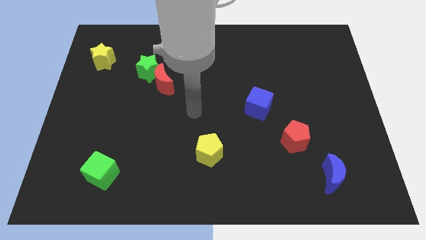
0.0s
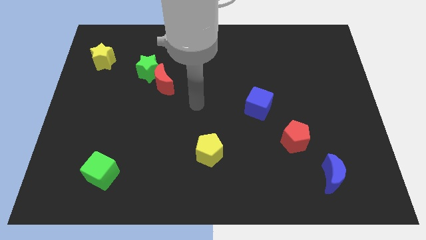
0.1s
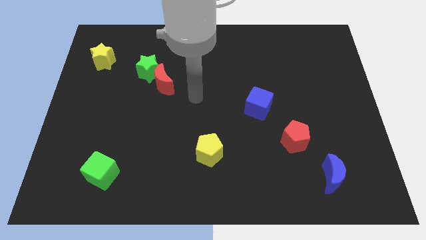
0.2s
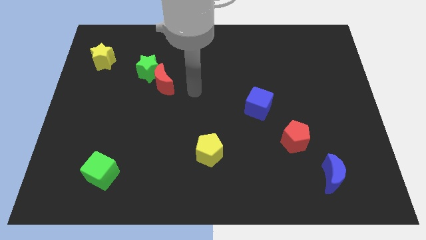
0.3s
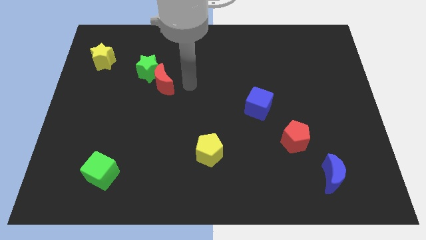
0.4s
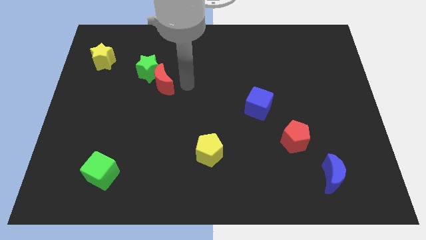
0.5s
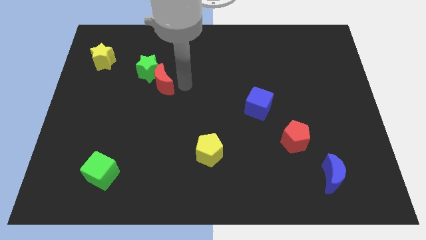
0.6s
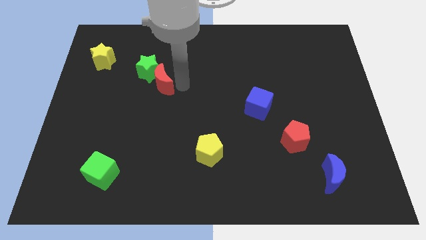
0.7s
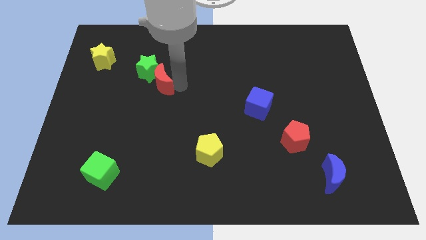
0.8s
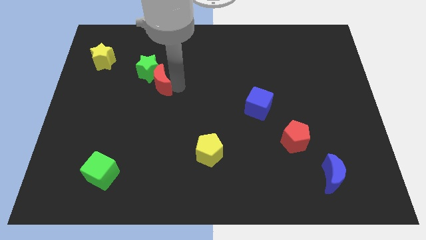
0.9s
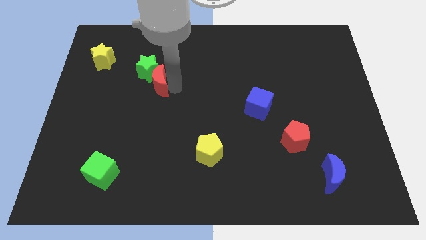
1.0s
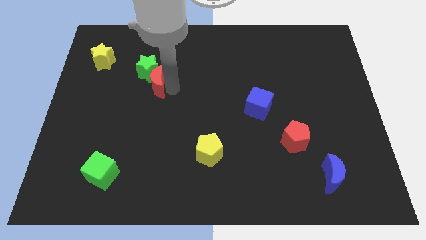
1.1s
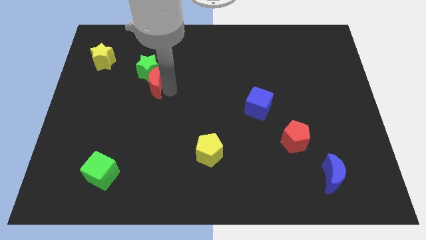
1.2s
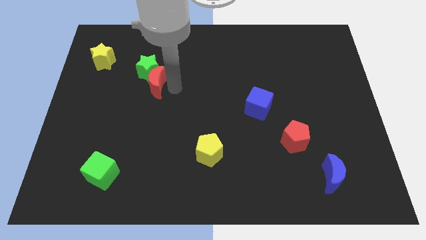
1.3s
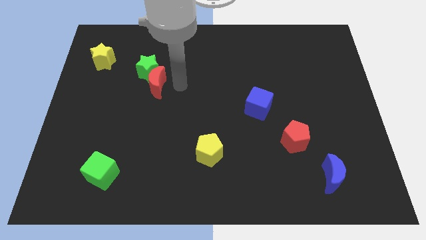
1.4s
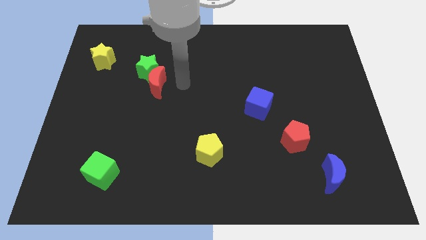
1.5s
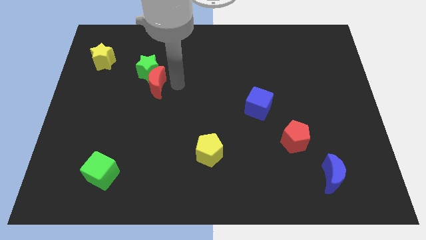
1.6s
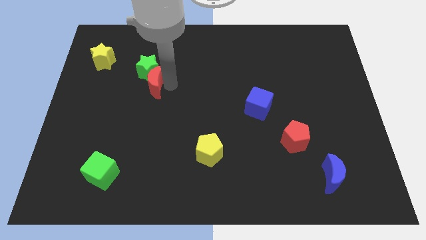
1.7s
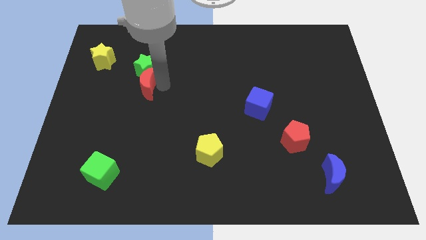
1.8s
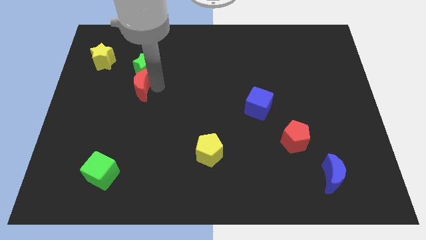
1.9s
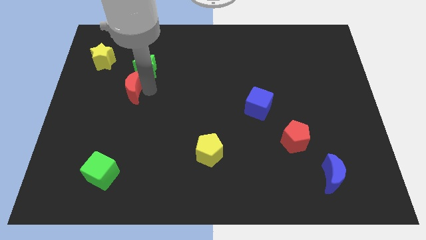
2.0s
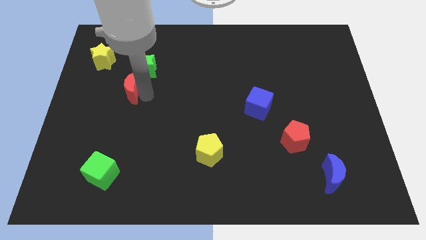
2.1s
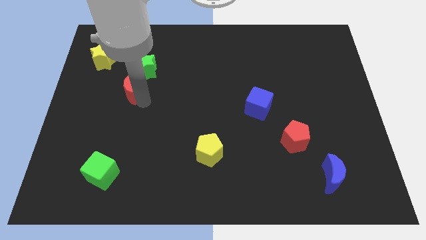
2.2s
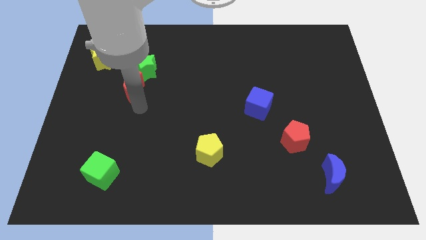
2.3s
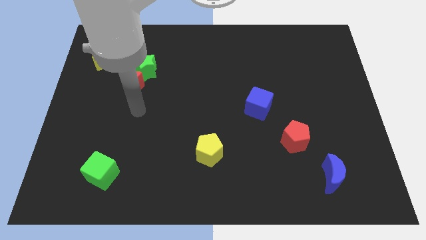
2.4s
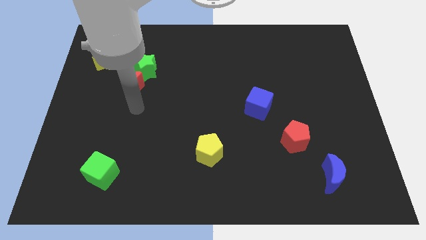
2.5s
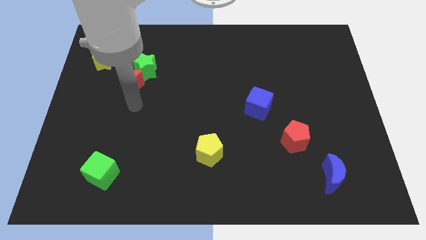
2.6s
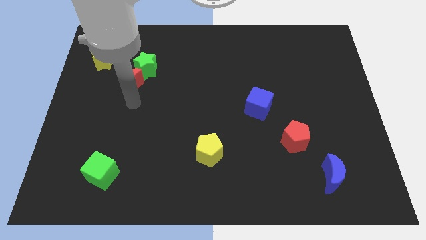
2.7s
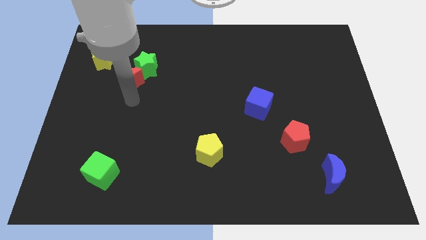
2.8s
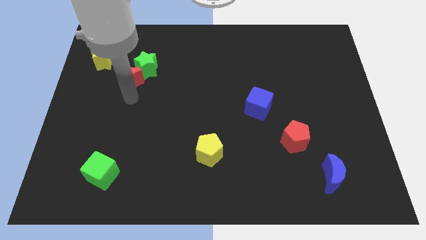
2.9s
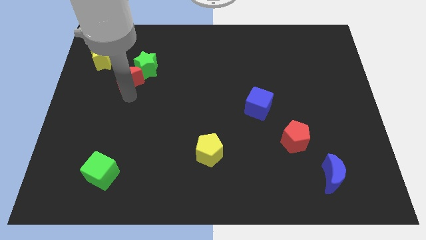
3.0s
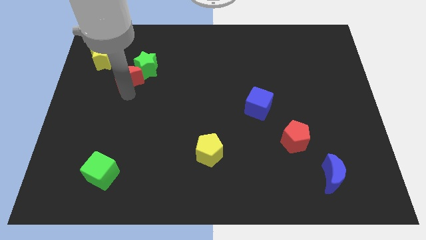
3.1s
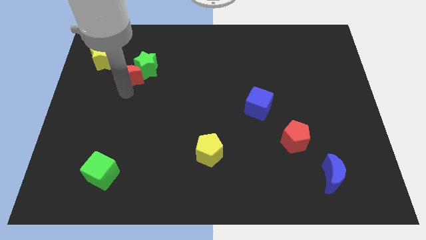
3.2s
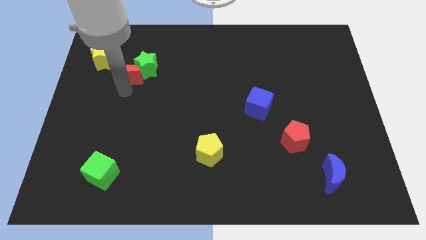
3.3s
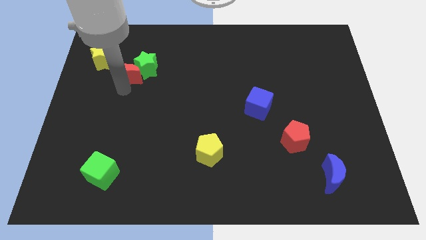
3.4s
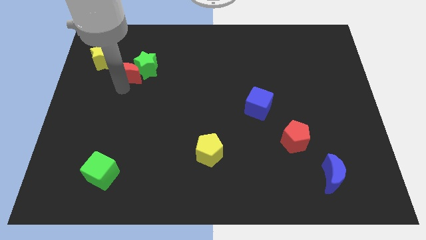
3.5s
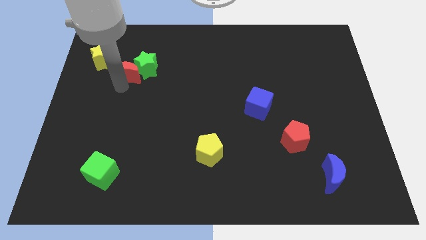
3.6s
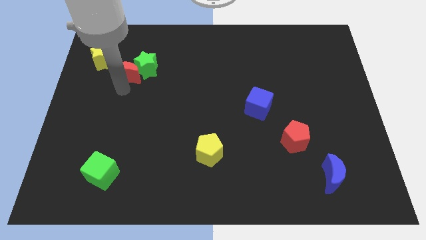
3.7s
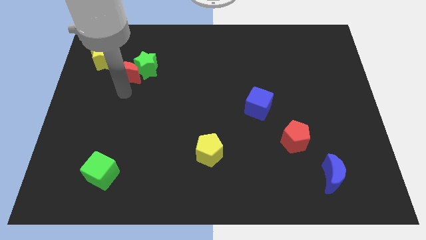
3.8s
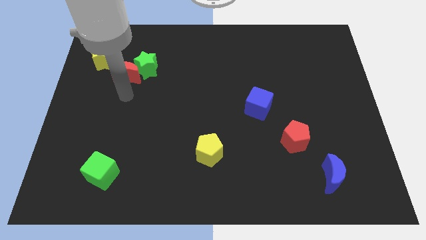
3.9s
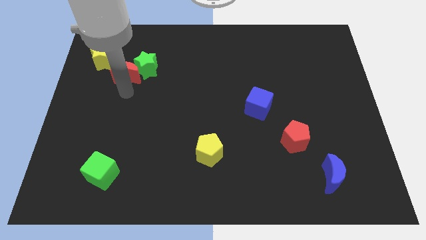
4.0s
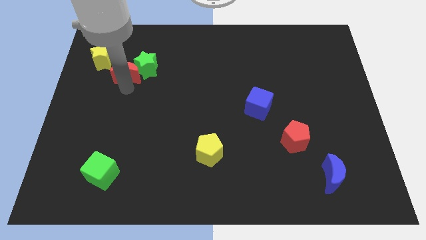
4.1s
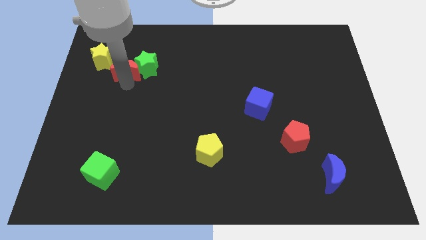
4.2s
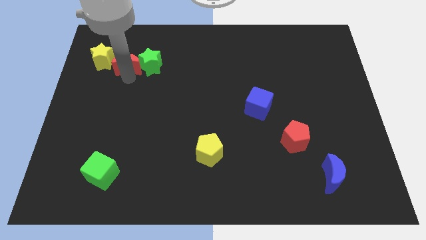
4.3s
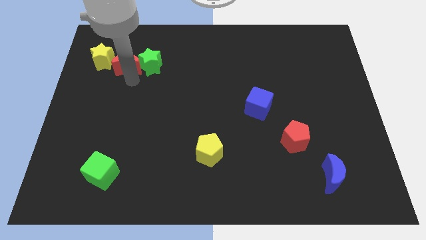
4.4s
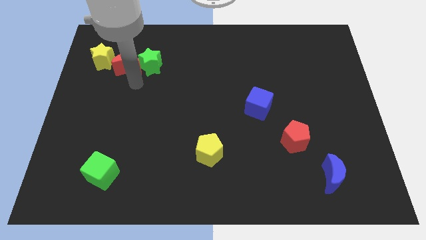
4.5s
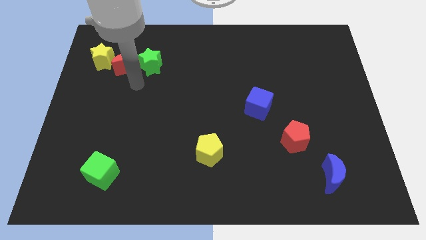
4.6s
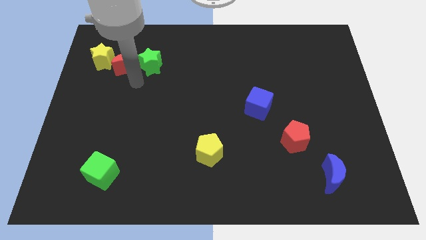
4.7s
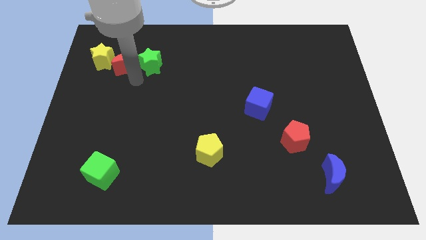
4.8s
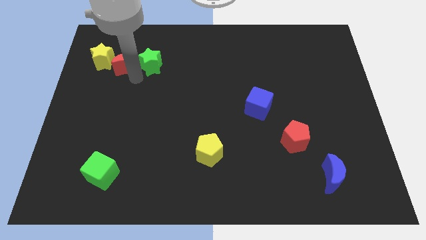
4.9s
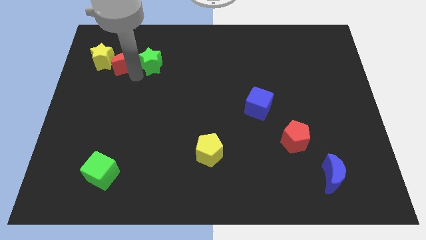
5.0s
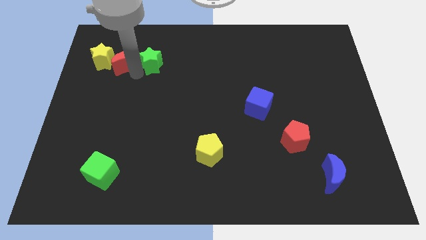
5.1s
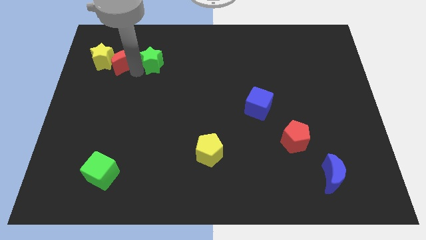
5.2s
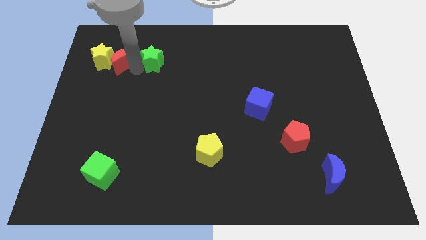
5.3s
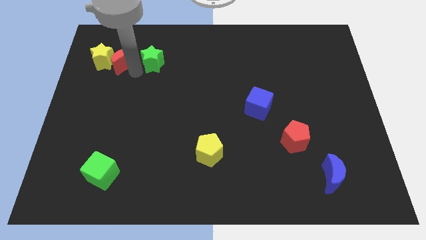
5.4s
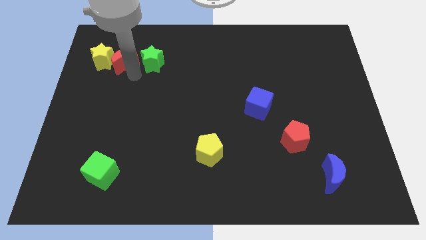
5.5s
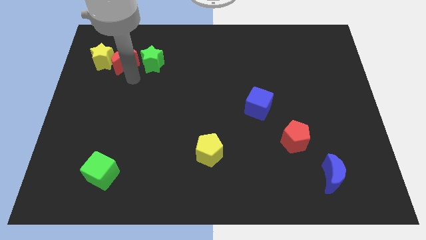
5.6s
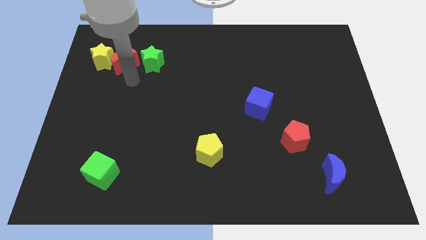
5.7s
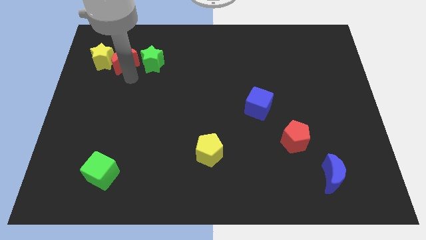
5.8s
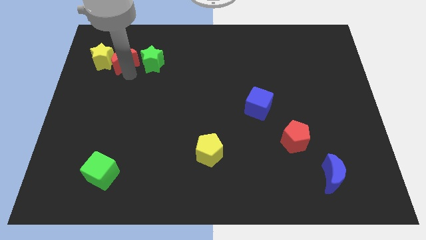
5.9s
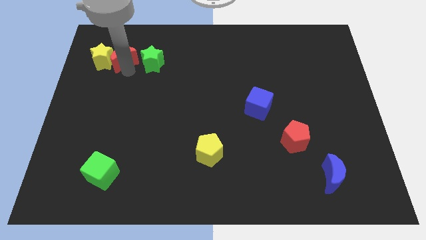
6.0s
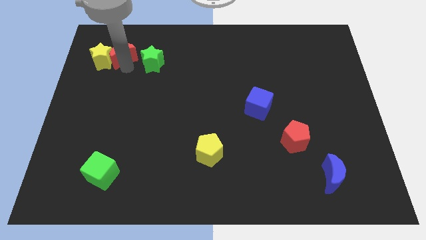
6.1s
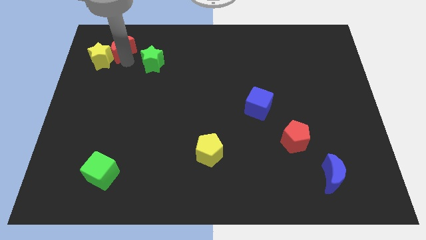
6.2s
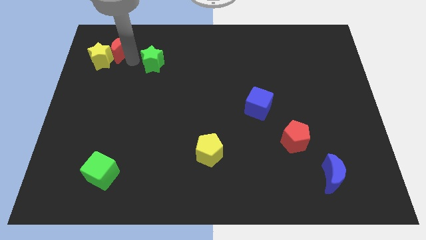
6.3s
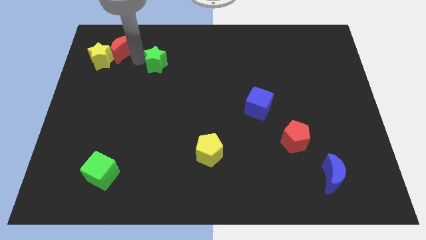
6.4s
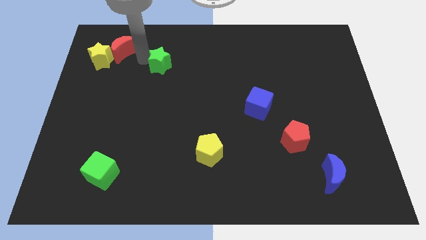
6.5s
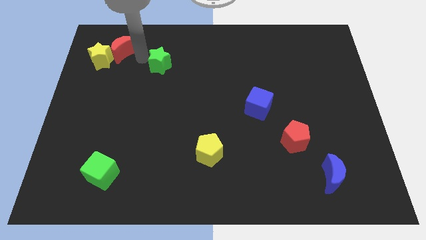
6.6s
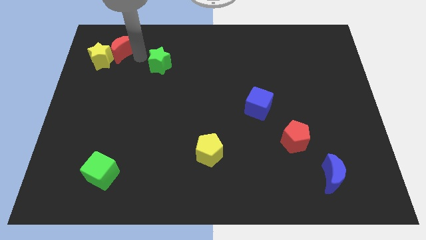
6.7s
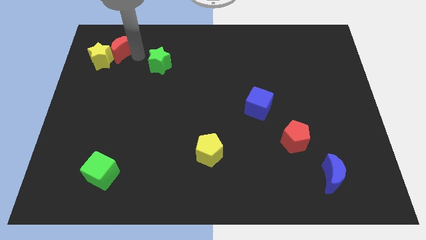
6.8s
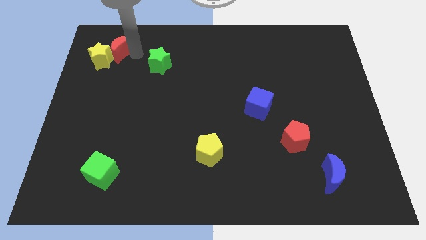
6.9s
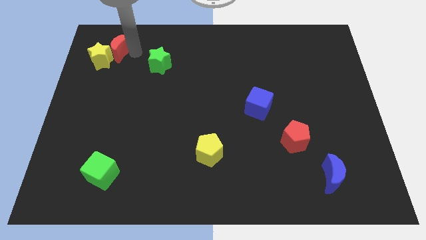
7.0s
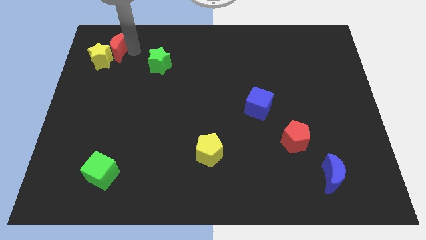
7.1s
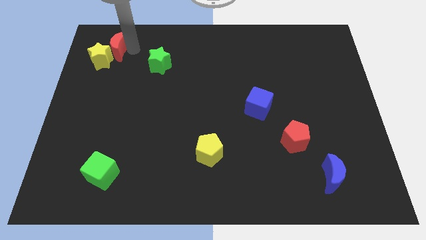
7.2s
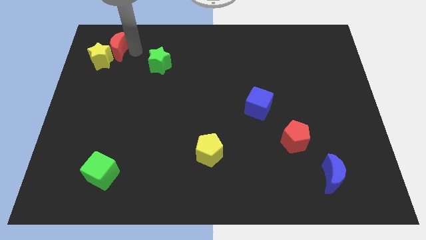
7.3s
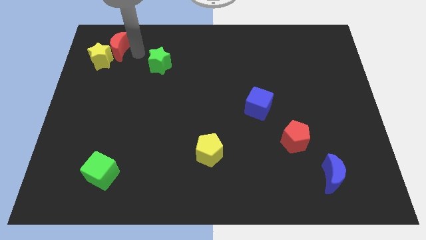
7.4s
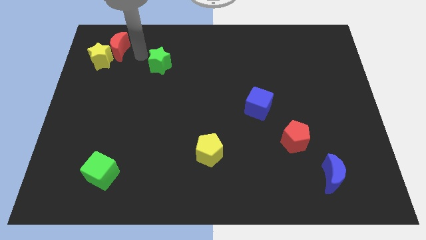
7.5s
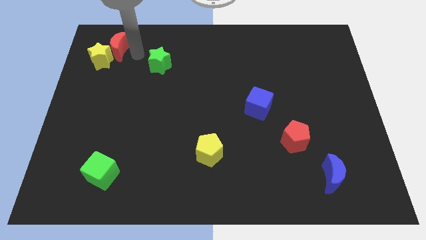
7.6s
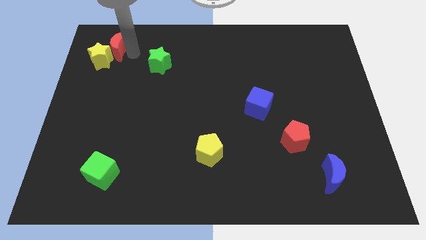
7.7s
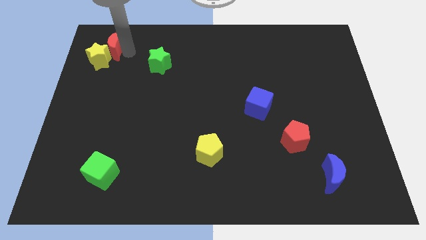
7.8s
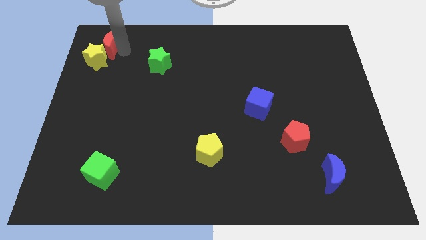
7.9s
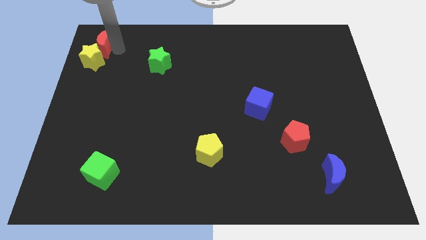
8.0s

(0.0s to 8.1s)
slide the red moon to the upper left corner

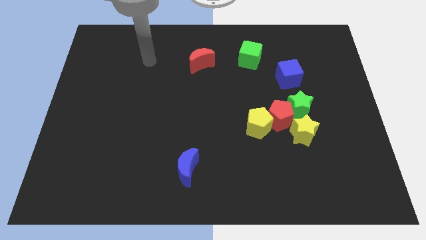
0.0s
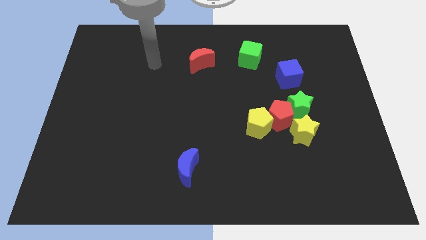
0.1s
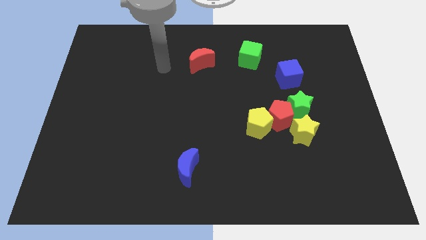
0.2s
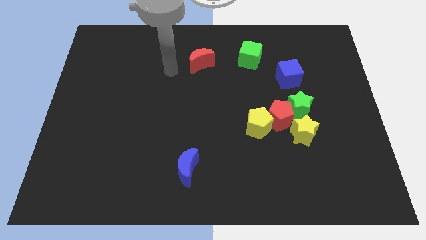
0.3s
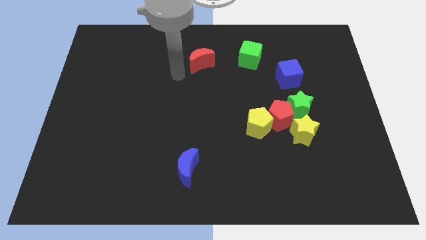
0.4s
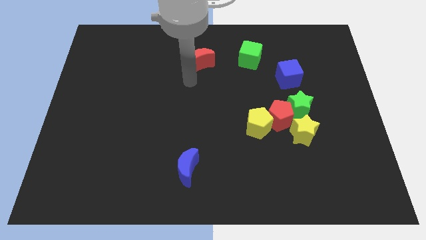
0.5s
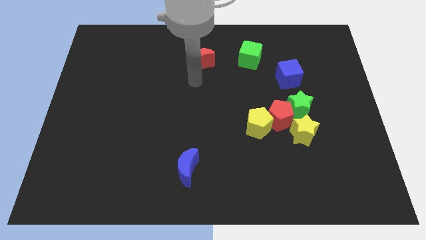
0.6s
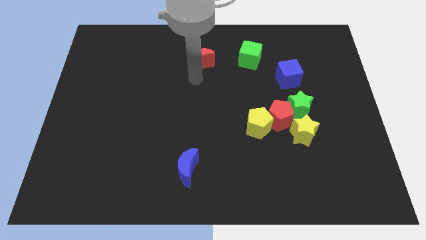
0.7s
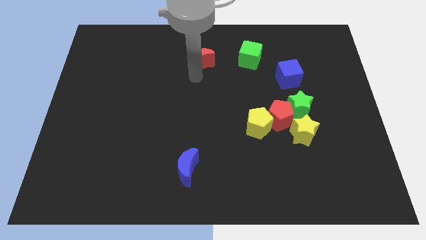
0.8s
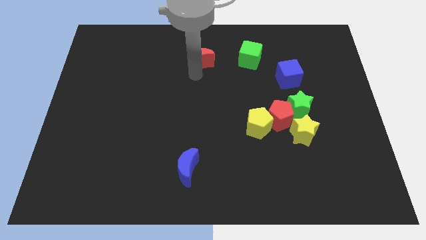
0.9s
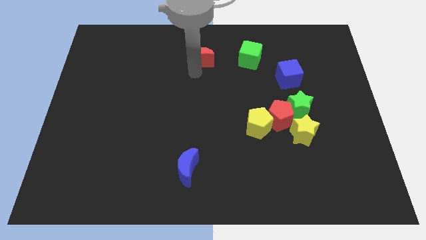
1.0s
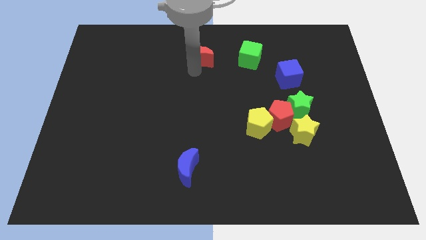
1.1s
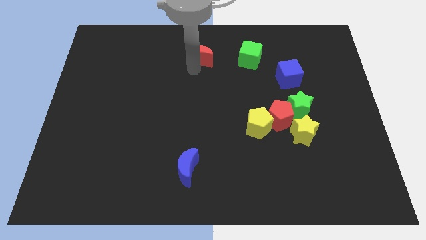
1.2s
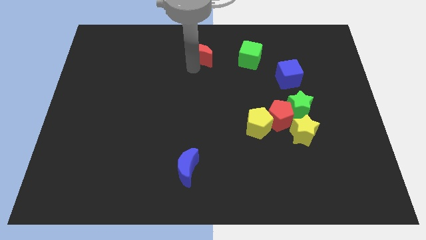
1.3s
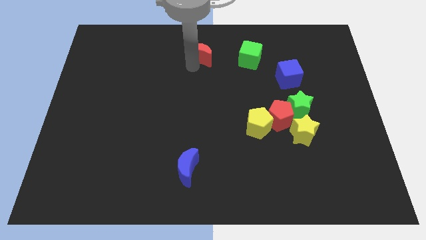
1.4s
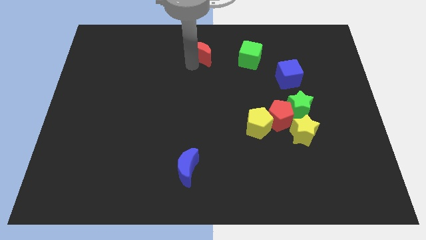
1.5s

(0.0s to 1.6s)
move the red moon to the towards your base
